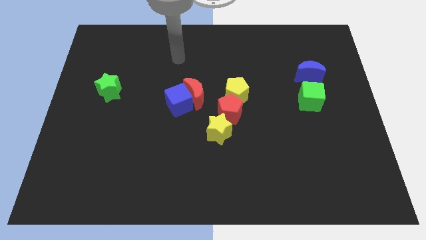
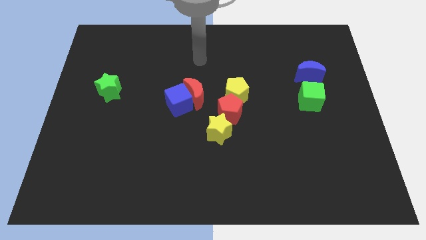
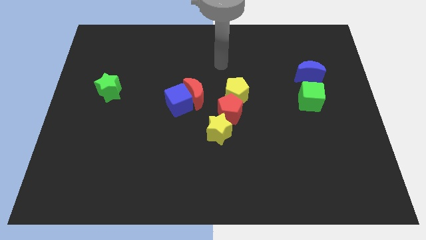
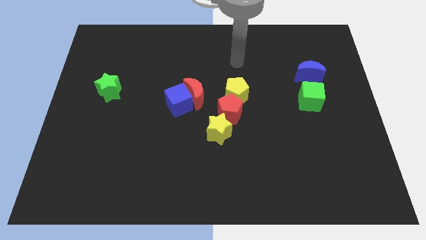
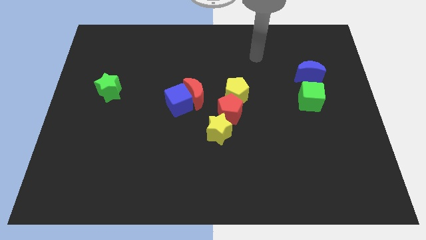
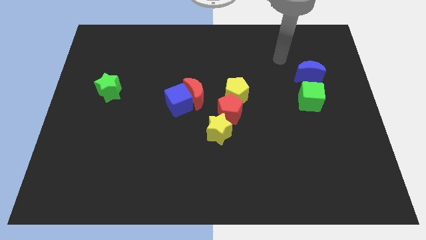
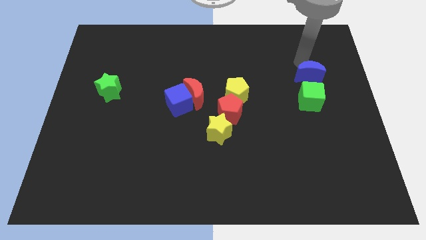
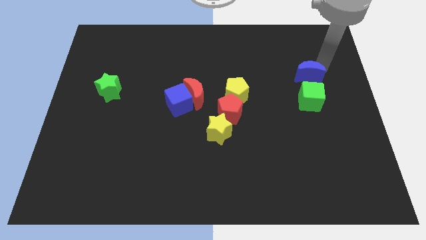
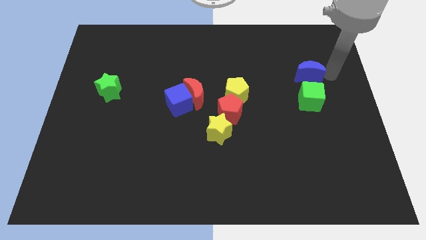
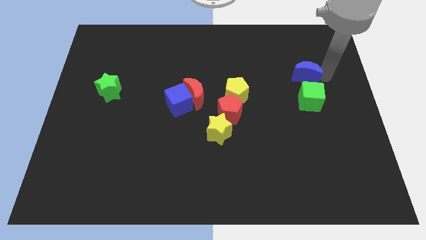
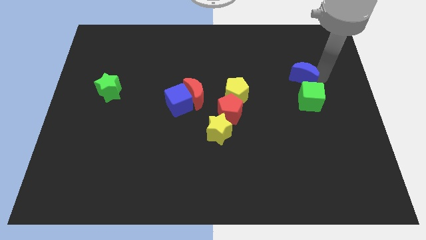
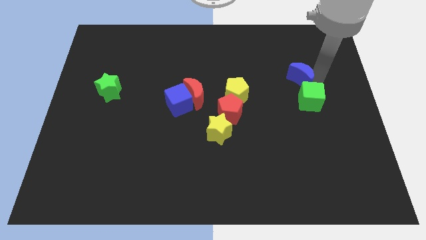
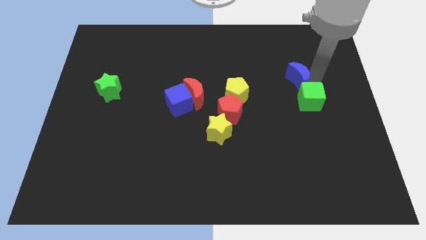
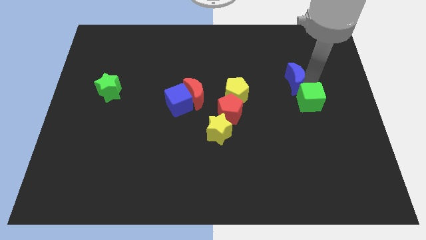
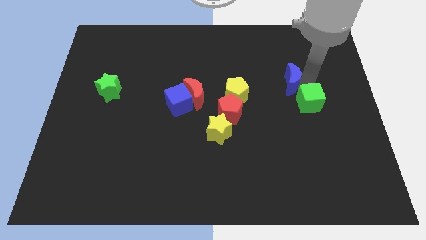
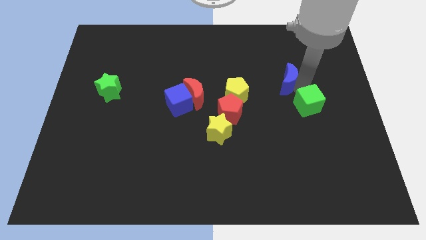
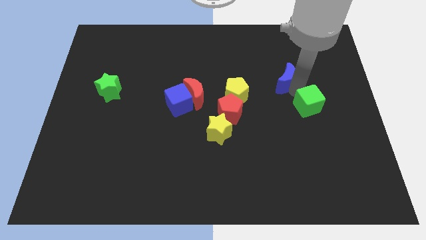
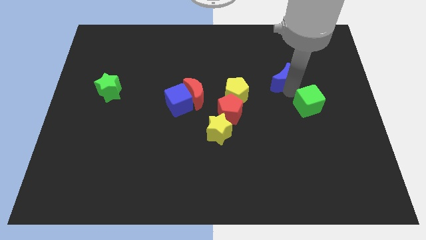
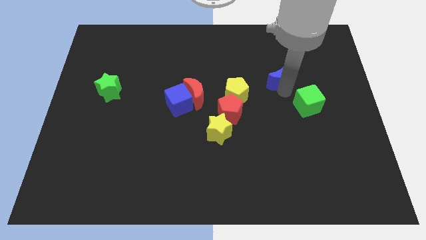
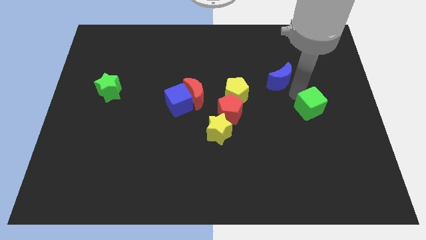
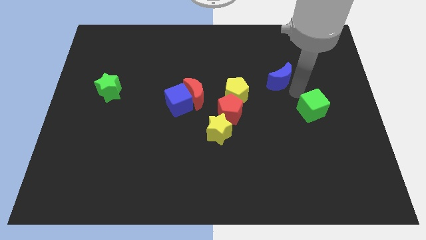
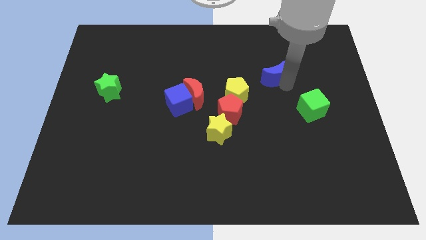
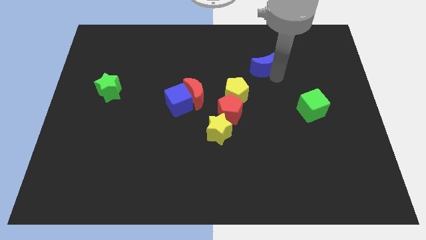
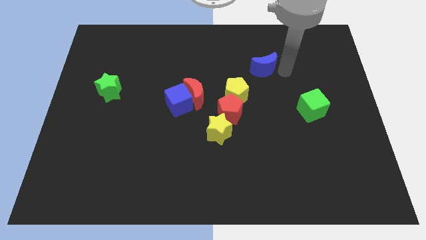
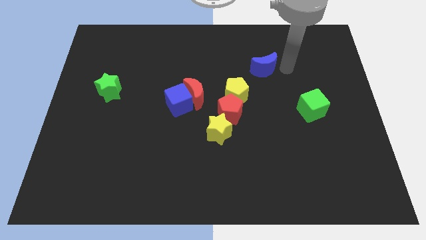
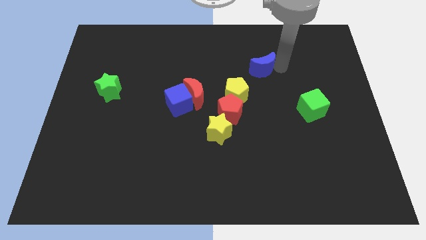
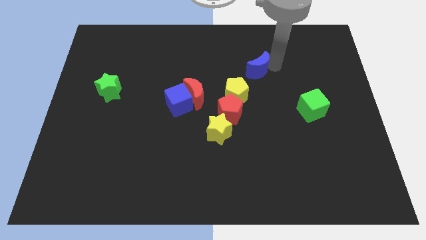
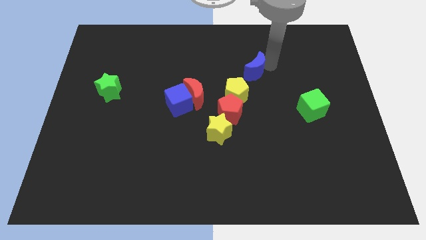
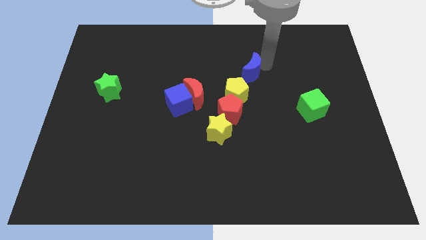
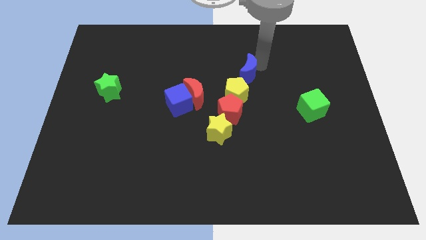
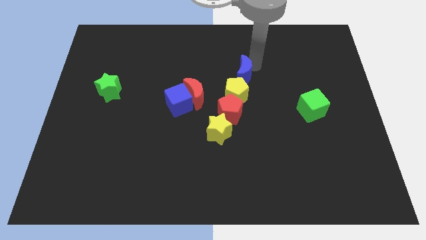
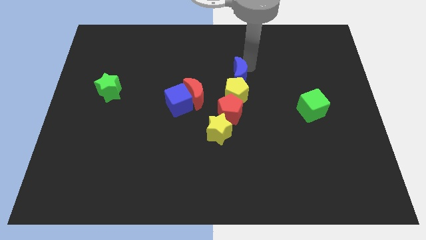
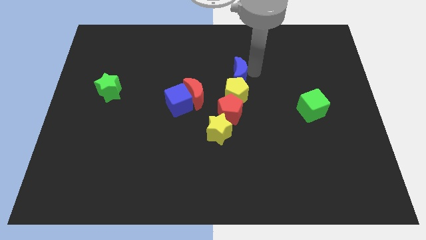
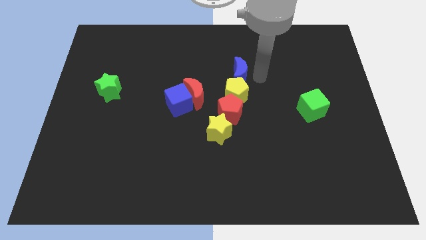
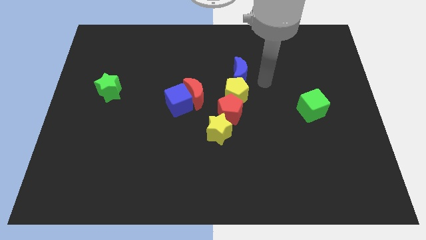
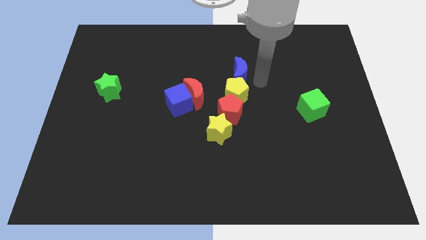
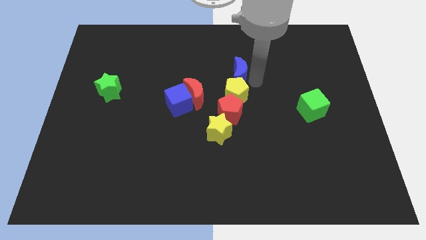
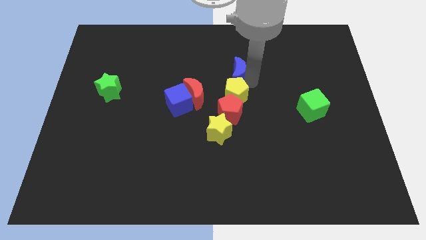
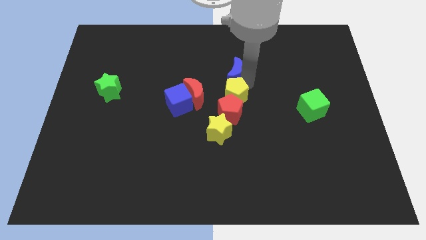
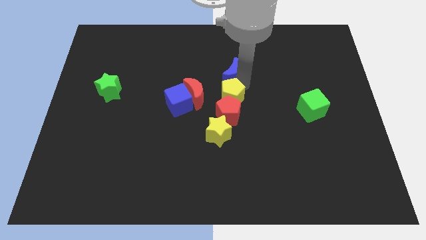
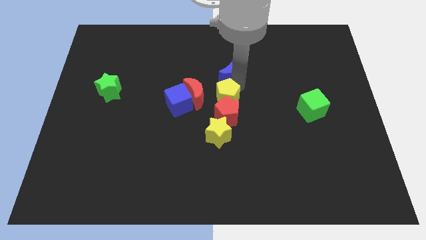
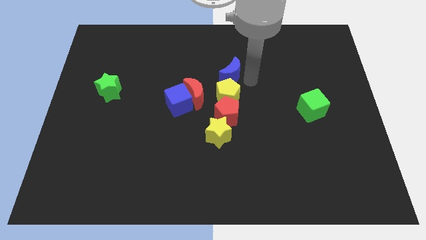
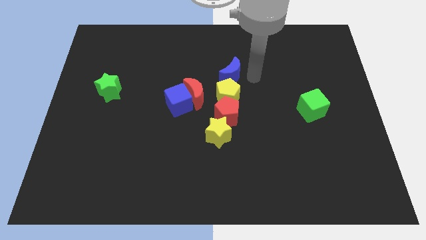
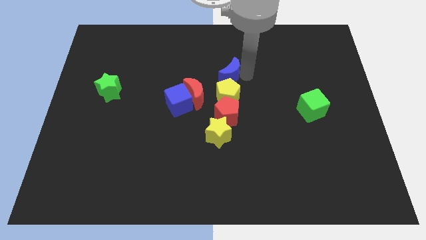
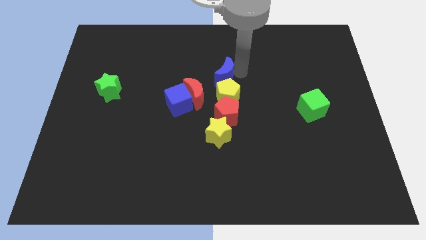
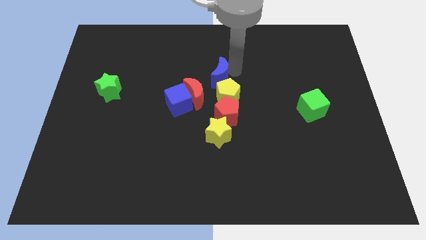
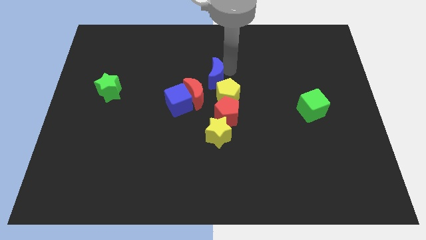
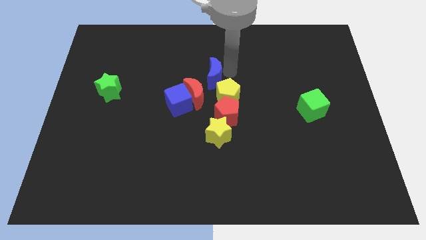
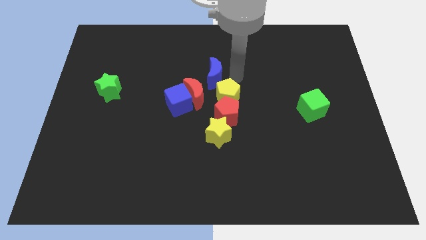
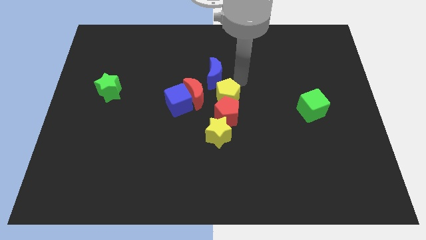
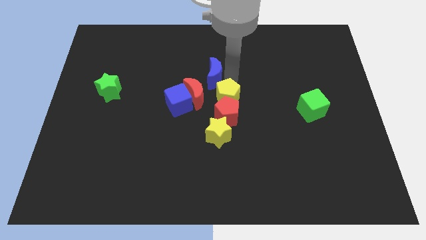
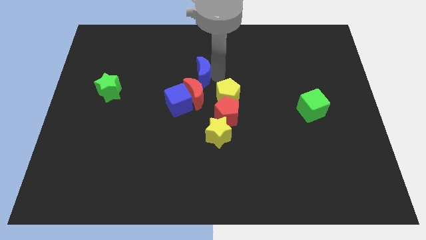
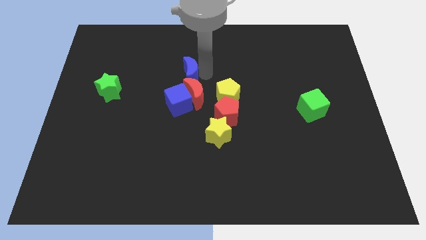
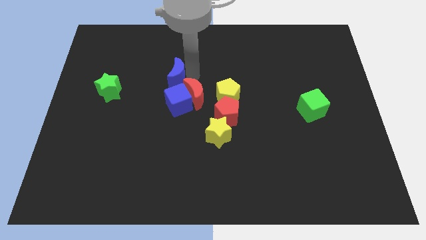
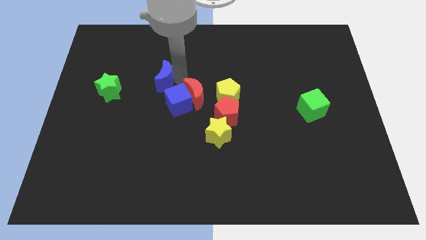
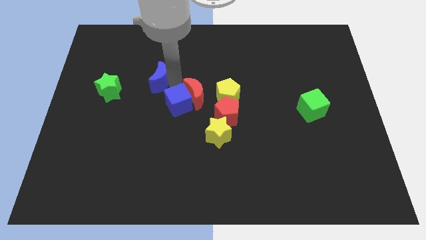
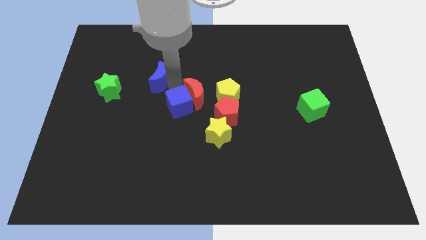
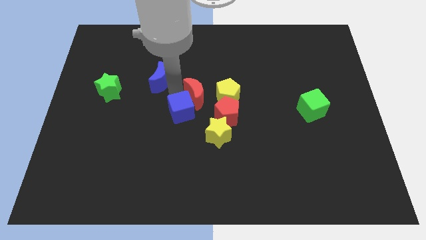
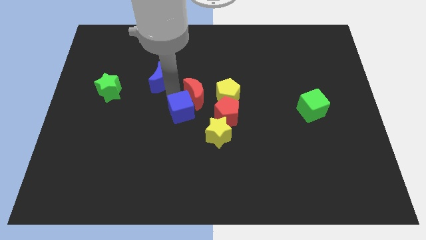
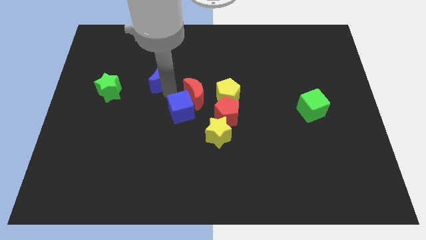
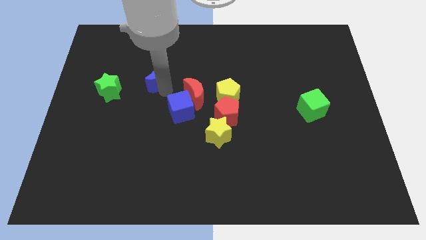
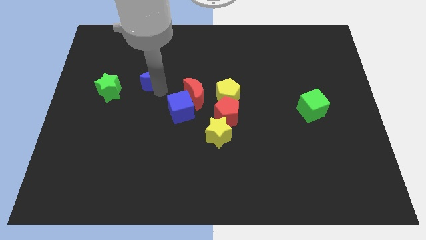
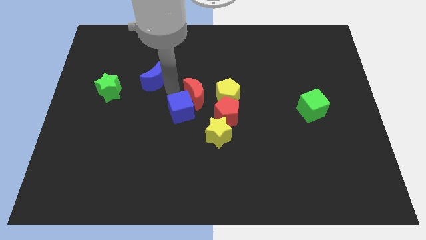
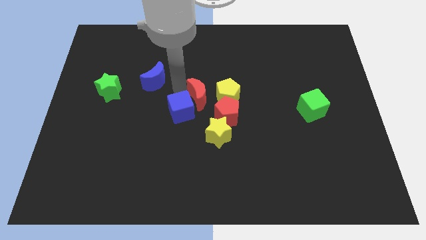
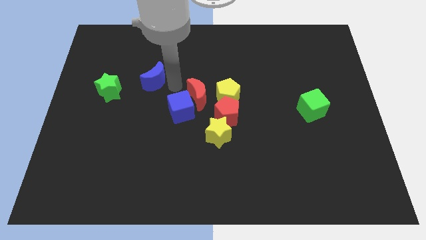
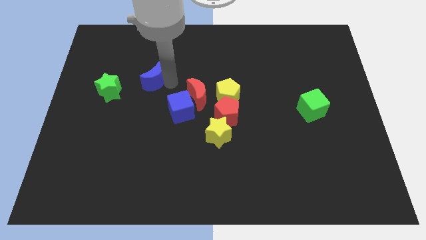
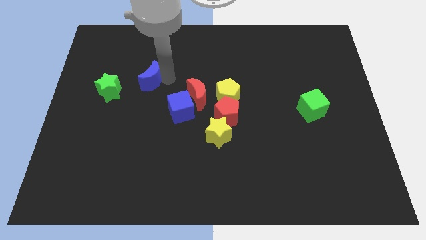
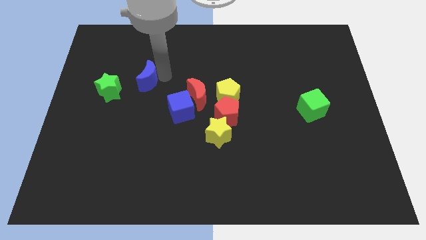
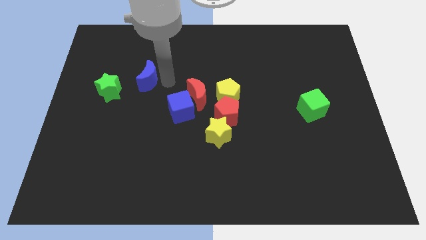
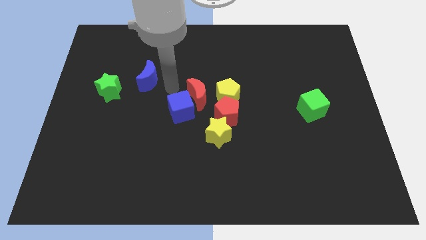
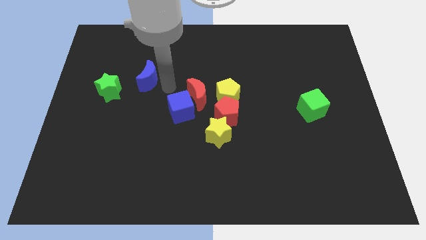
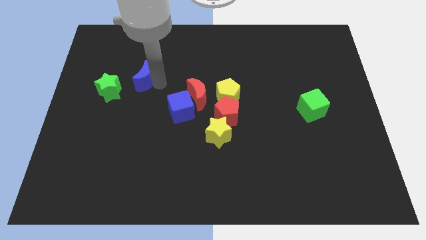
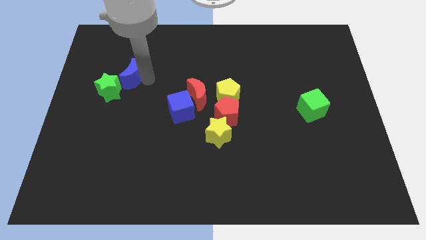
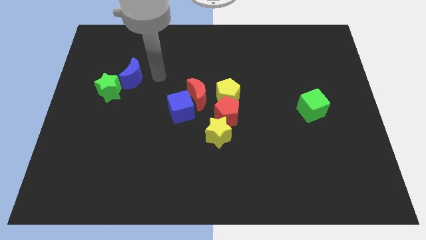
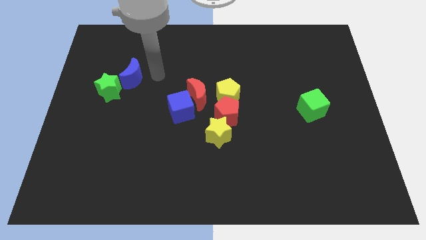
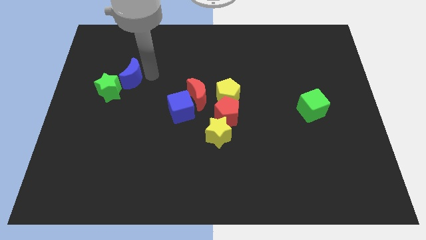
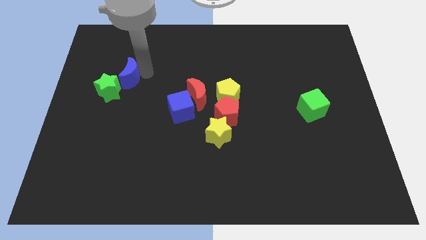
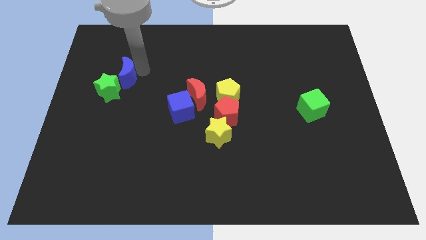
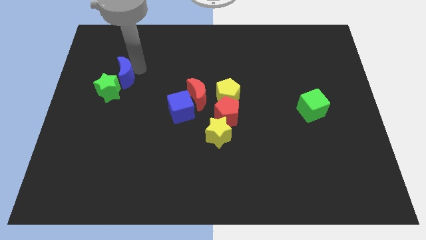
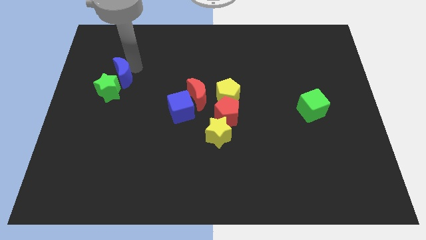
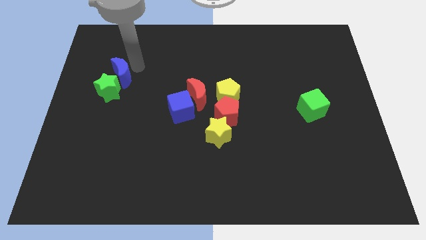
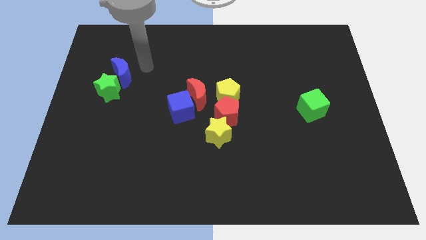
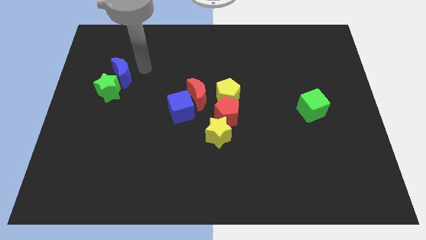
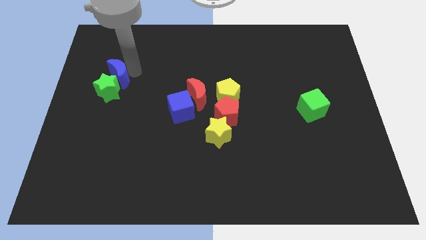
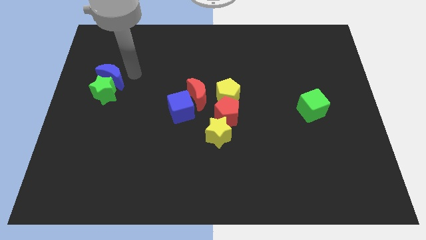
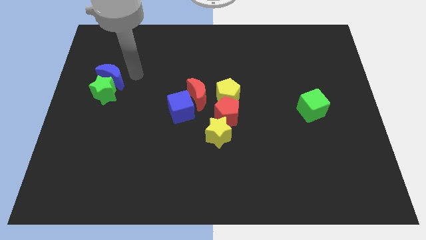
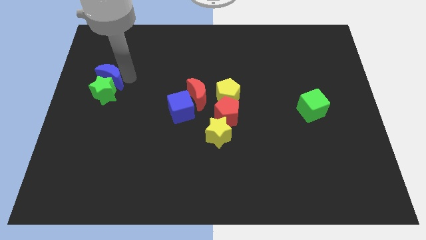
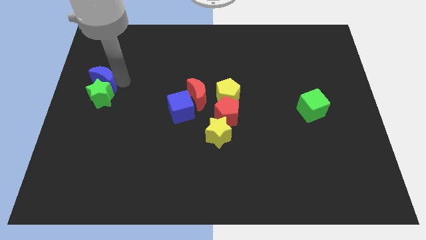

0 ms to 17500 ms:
put the blue moon to the left side
